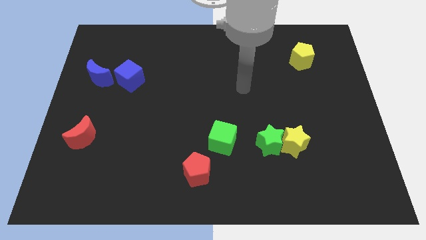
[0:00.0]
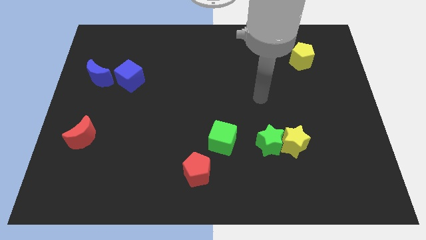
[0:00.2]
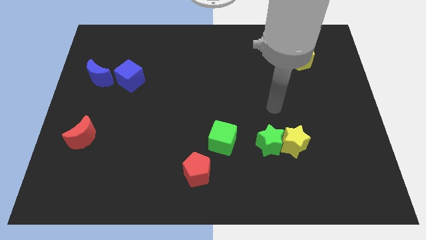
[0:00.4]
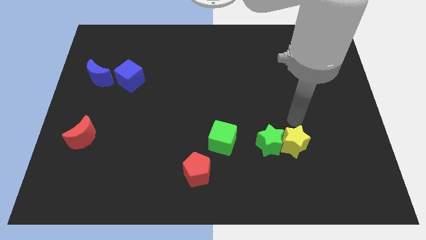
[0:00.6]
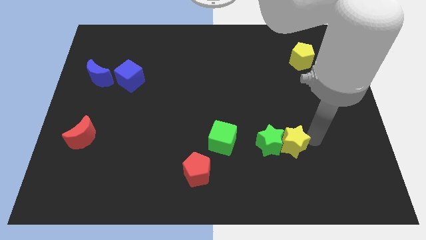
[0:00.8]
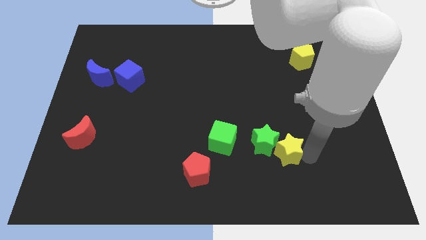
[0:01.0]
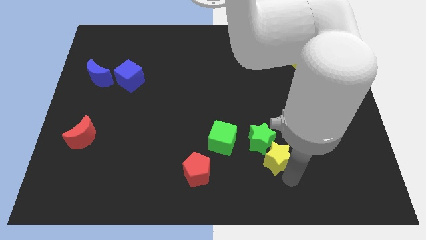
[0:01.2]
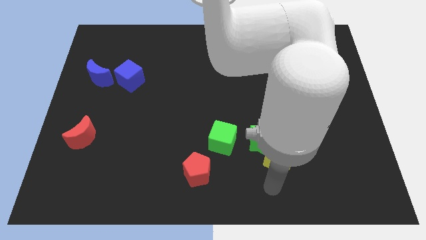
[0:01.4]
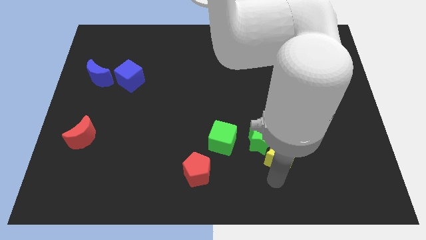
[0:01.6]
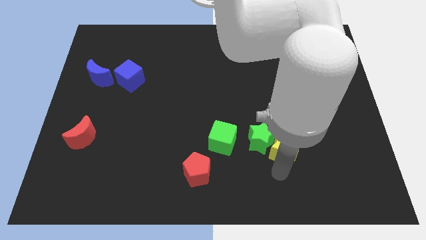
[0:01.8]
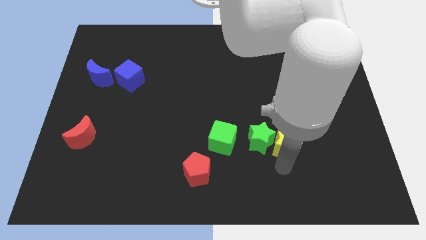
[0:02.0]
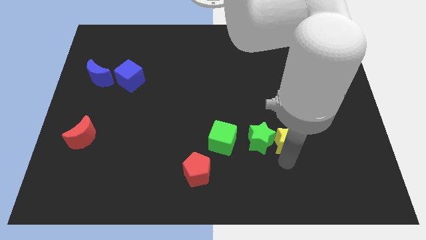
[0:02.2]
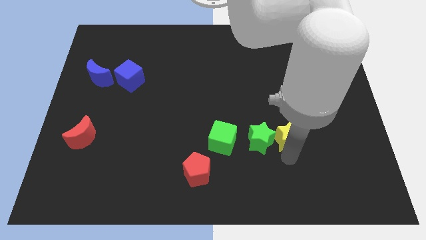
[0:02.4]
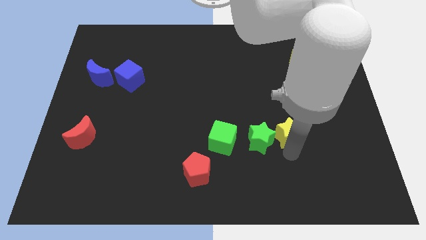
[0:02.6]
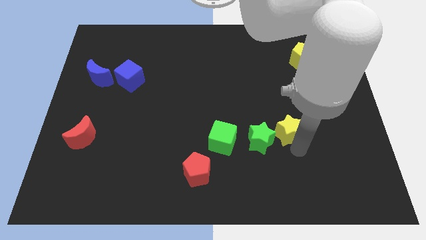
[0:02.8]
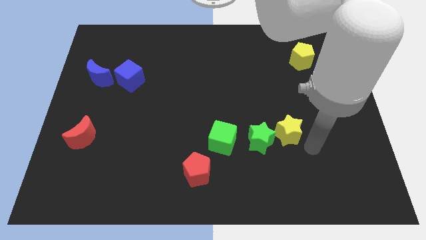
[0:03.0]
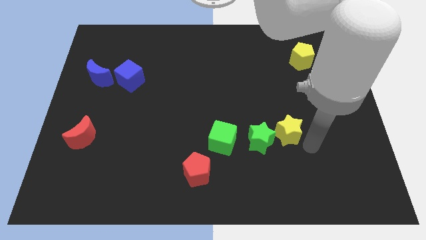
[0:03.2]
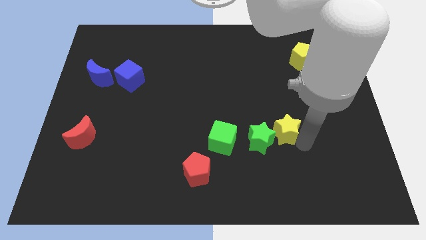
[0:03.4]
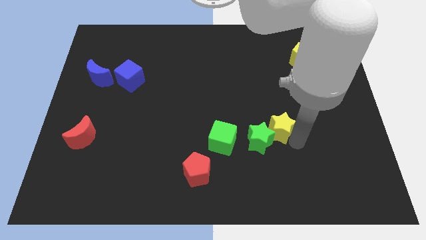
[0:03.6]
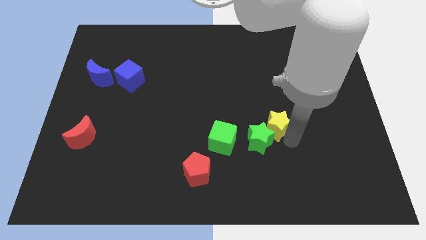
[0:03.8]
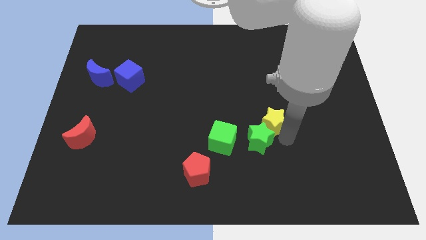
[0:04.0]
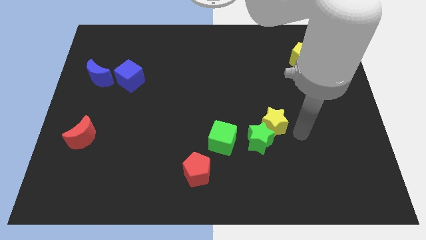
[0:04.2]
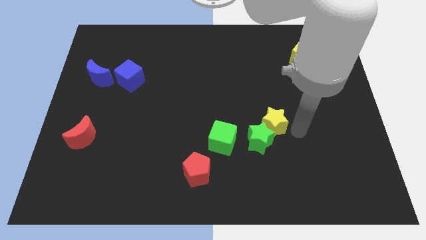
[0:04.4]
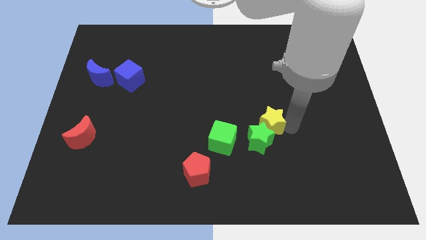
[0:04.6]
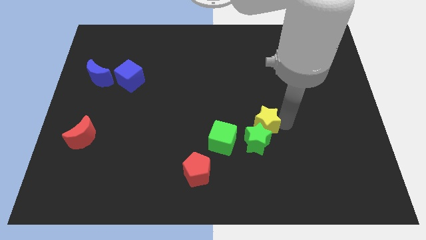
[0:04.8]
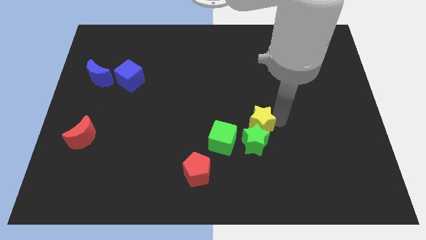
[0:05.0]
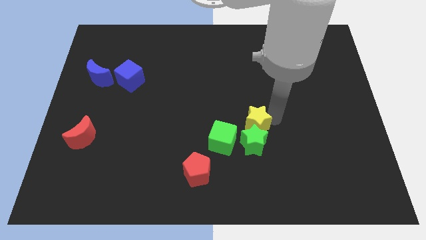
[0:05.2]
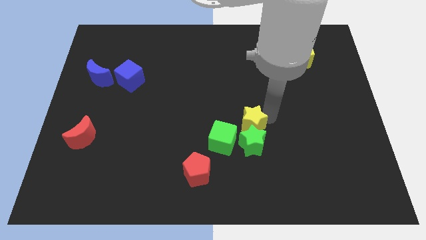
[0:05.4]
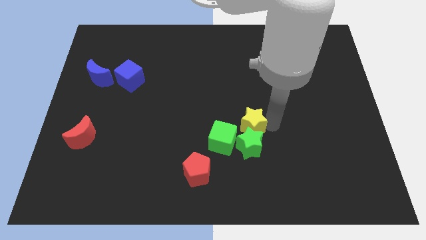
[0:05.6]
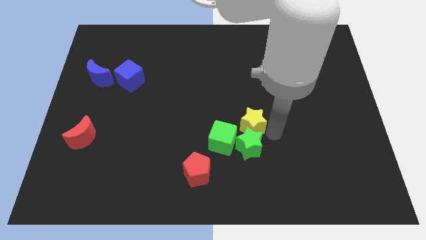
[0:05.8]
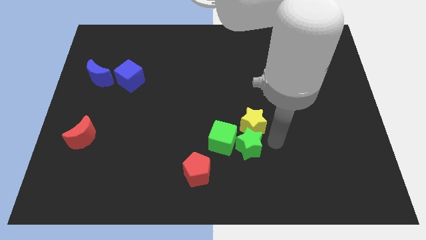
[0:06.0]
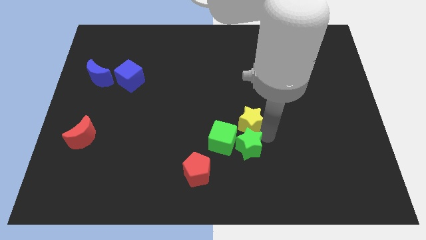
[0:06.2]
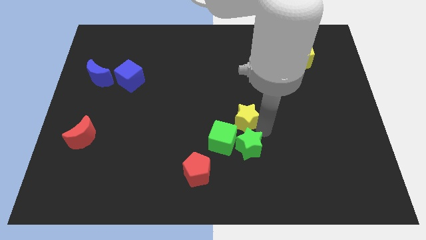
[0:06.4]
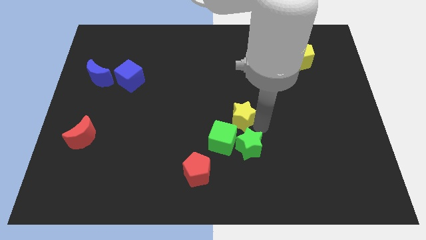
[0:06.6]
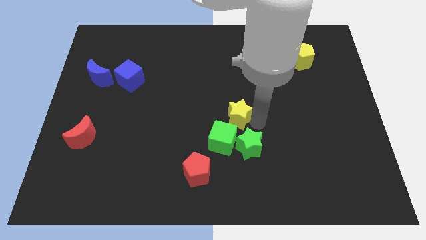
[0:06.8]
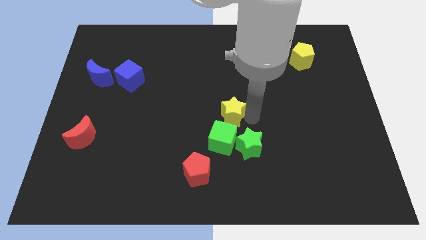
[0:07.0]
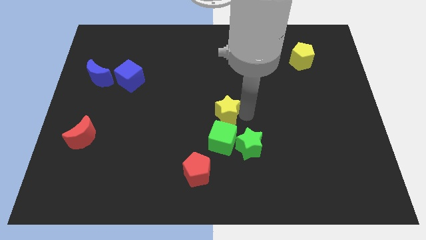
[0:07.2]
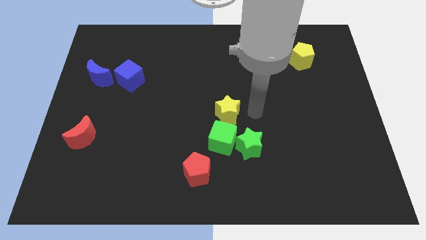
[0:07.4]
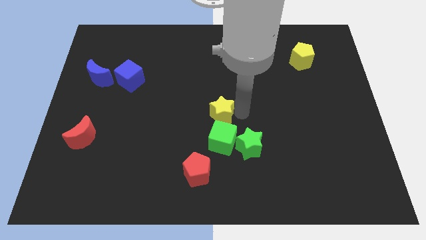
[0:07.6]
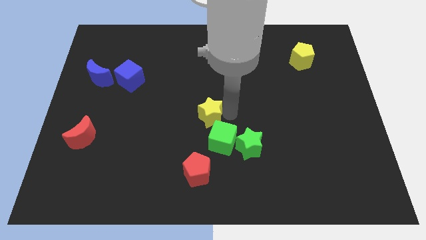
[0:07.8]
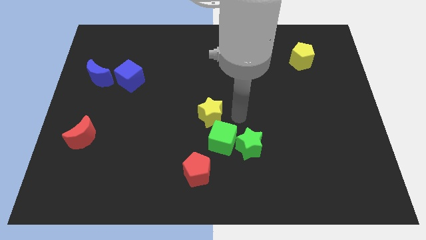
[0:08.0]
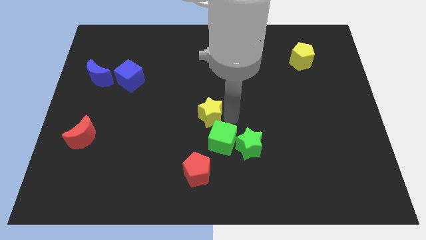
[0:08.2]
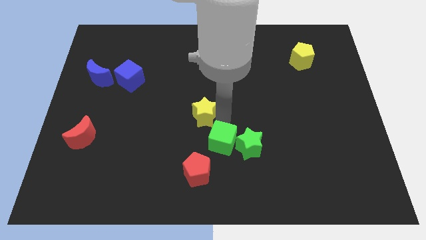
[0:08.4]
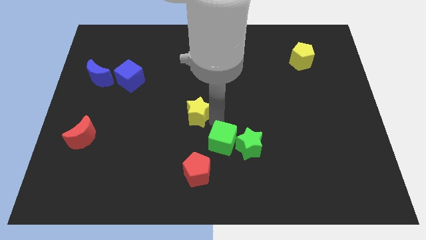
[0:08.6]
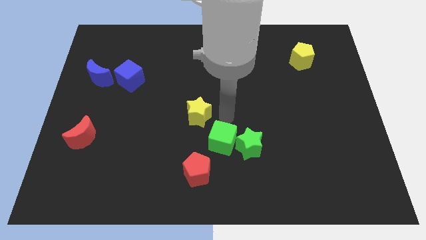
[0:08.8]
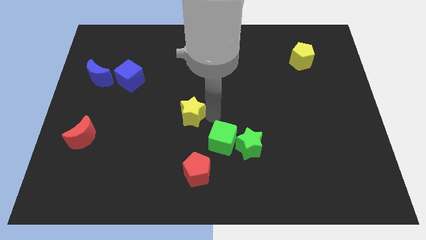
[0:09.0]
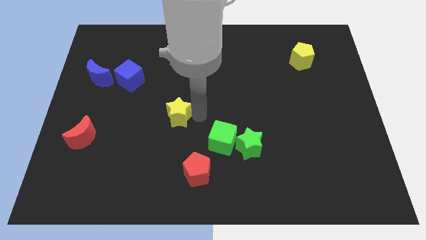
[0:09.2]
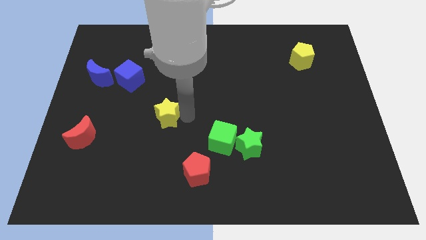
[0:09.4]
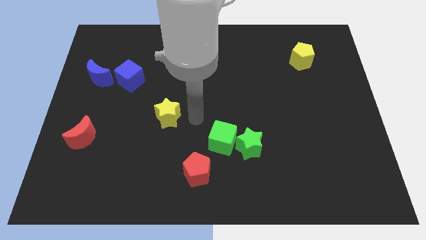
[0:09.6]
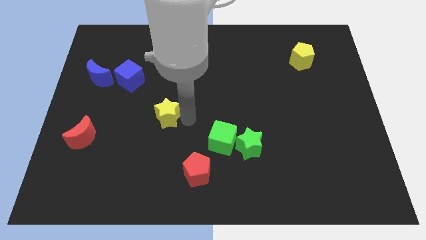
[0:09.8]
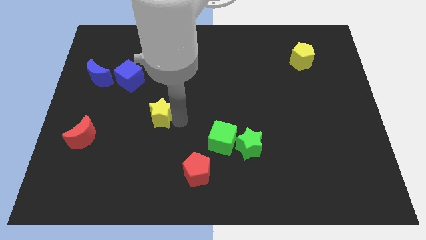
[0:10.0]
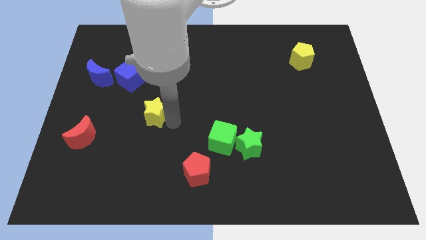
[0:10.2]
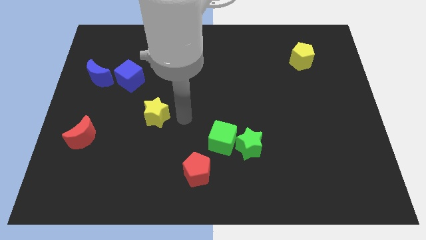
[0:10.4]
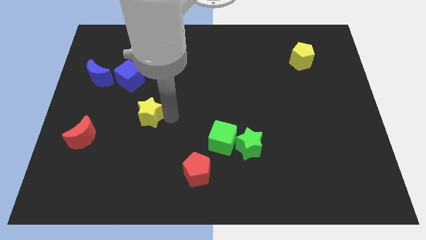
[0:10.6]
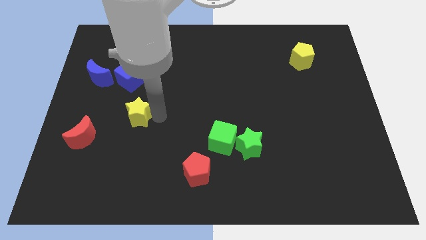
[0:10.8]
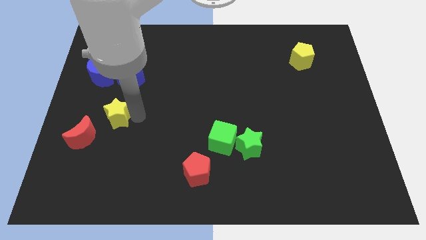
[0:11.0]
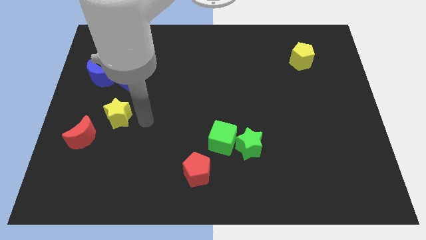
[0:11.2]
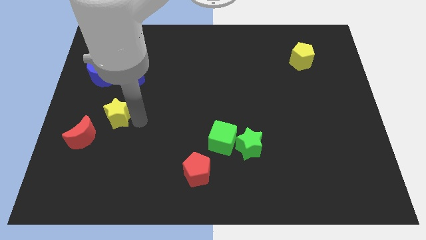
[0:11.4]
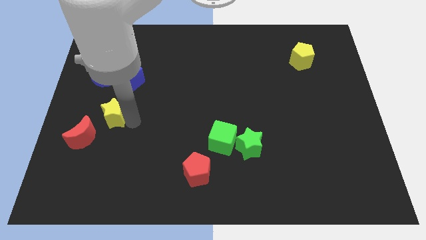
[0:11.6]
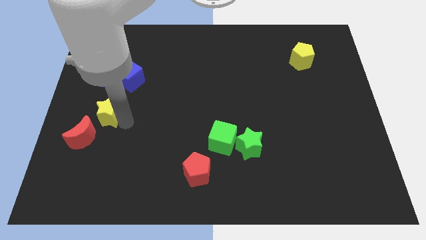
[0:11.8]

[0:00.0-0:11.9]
move the yellow star to the bottom of the blue moon

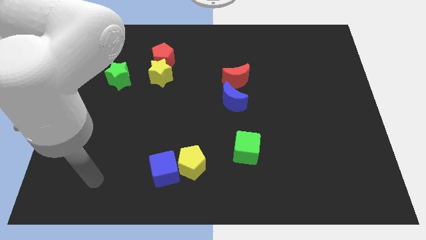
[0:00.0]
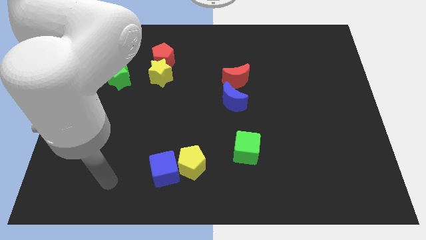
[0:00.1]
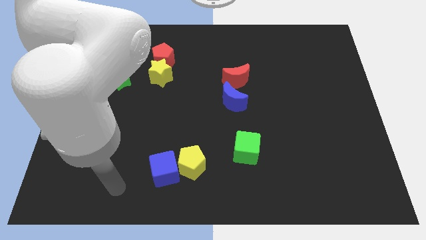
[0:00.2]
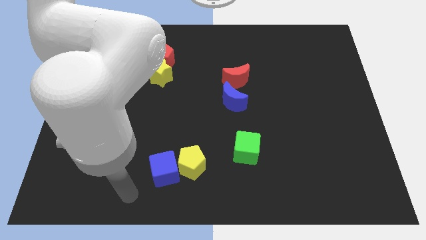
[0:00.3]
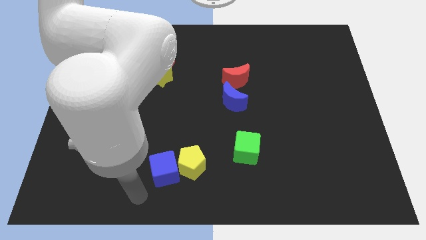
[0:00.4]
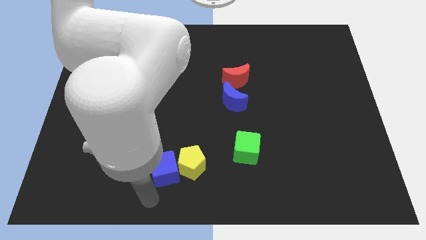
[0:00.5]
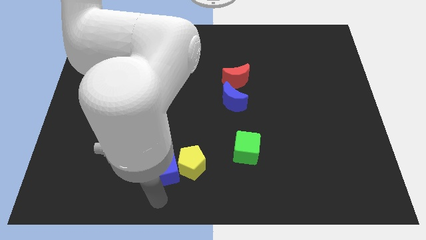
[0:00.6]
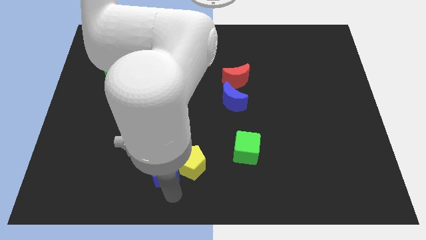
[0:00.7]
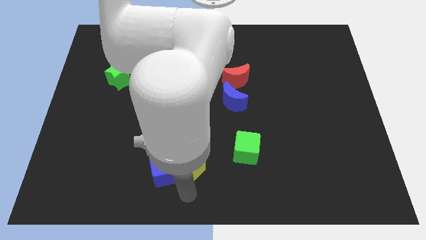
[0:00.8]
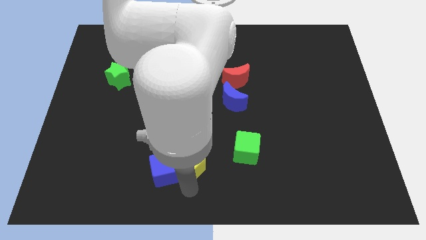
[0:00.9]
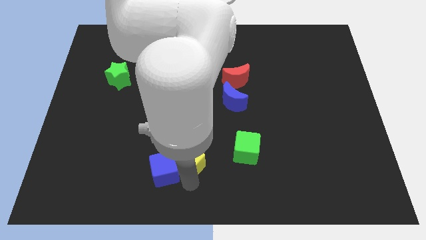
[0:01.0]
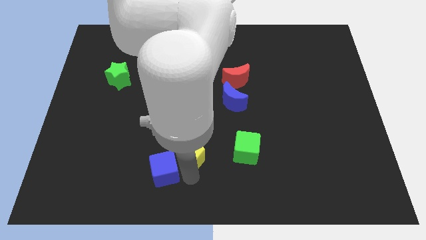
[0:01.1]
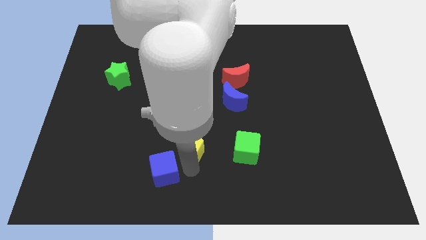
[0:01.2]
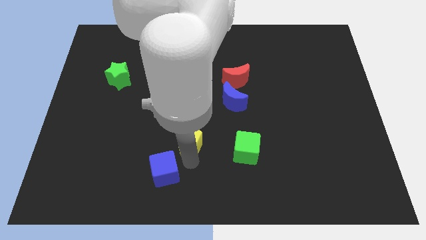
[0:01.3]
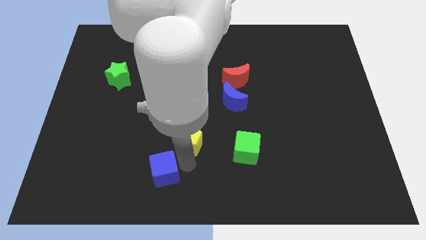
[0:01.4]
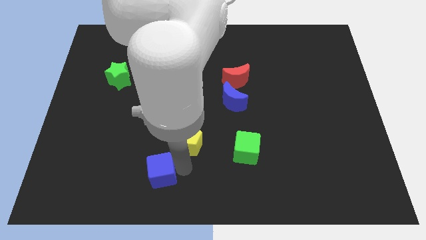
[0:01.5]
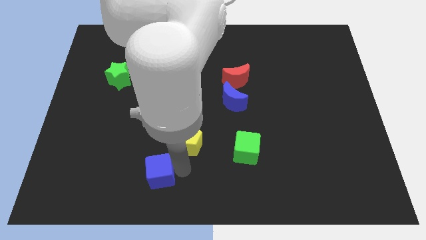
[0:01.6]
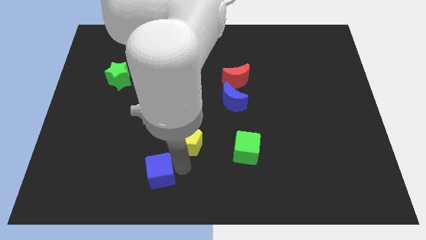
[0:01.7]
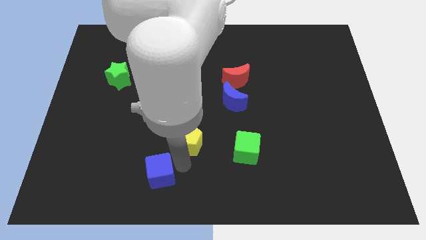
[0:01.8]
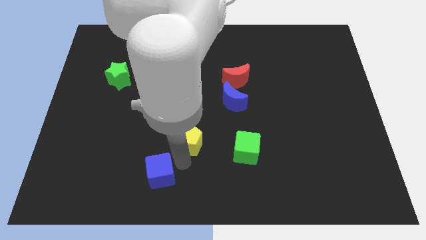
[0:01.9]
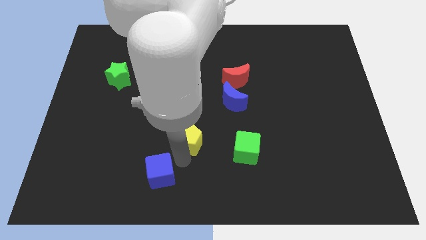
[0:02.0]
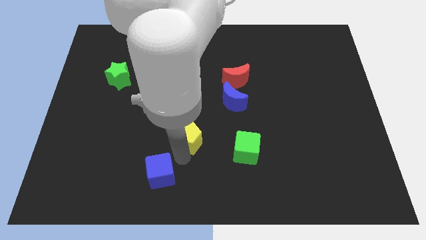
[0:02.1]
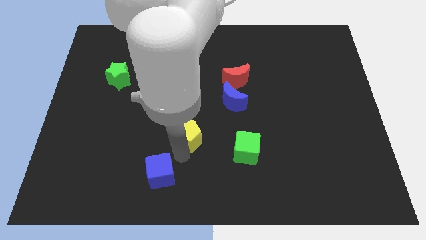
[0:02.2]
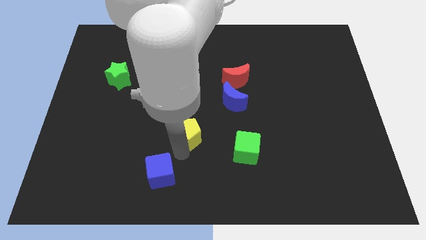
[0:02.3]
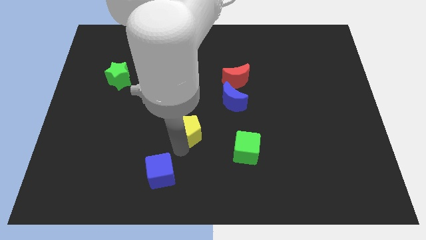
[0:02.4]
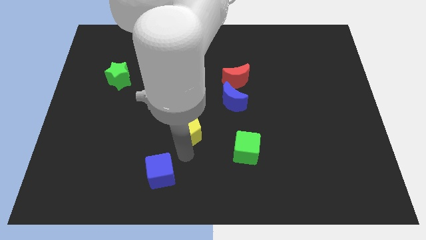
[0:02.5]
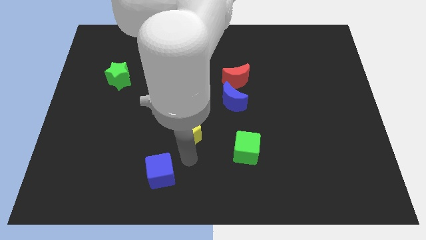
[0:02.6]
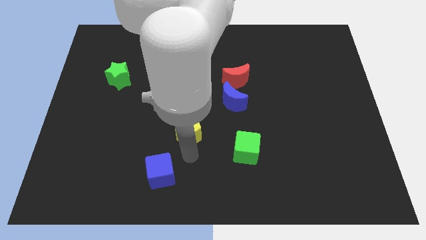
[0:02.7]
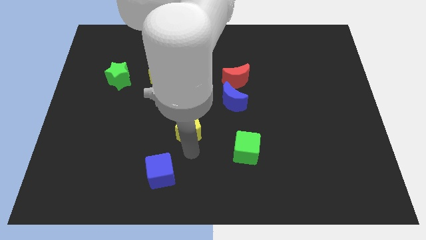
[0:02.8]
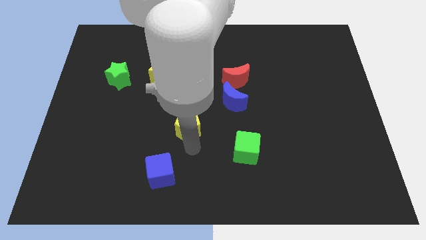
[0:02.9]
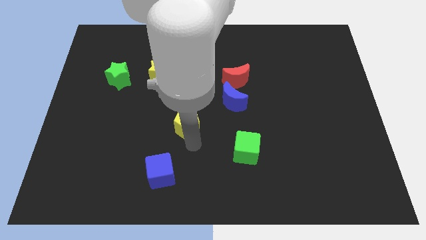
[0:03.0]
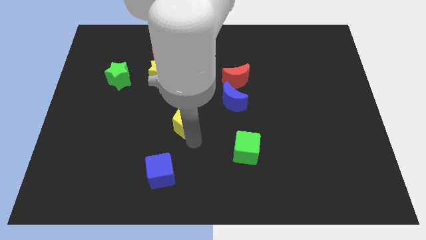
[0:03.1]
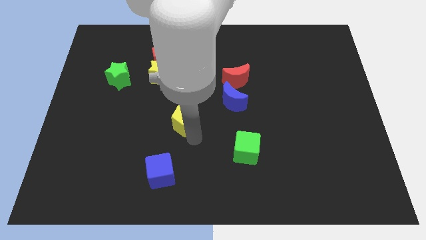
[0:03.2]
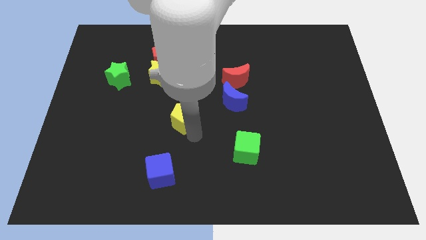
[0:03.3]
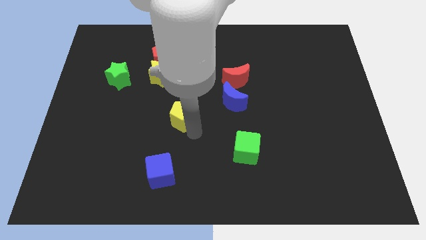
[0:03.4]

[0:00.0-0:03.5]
put the yellow pentagon left of the blue moon
